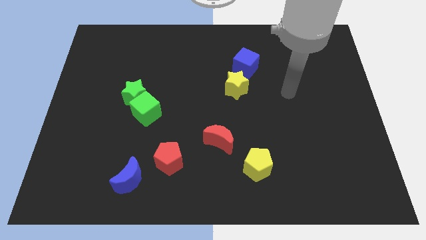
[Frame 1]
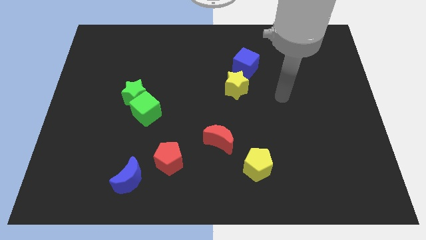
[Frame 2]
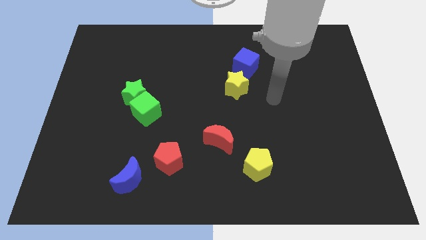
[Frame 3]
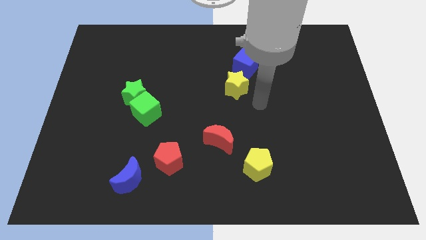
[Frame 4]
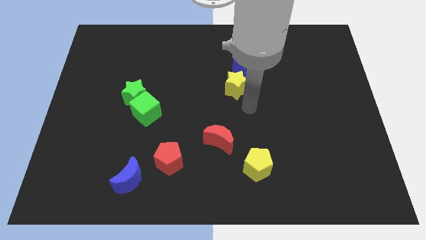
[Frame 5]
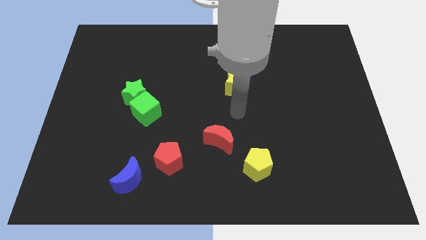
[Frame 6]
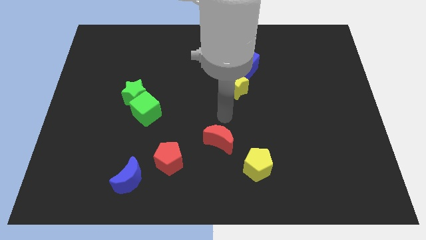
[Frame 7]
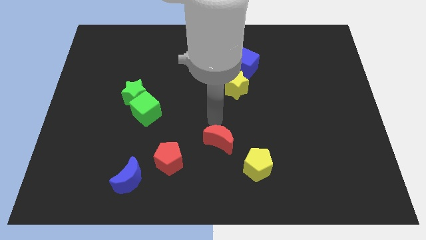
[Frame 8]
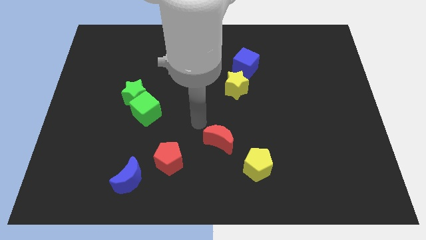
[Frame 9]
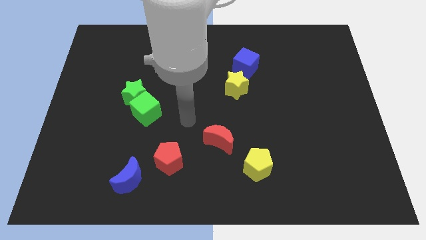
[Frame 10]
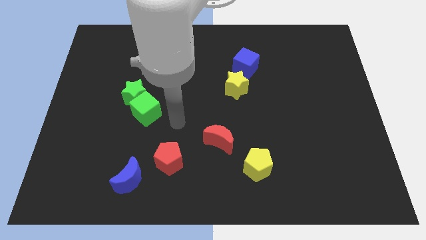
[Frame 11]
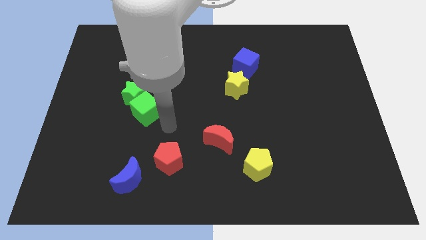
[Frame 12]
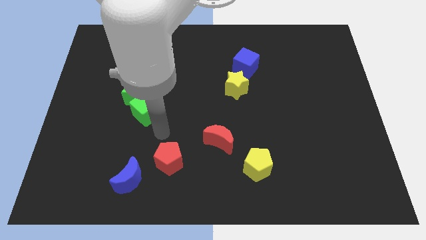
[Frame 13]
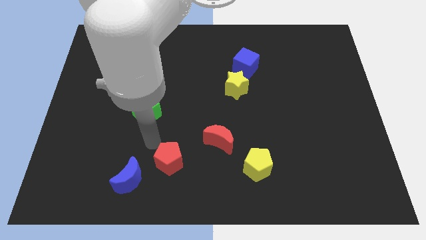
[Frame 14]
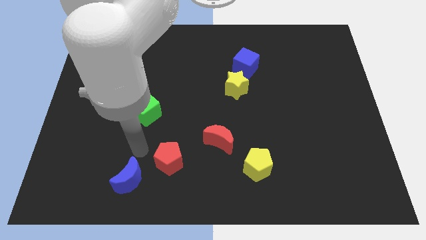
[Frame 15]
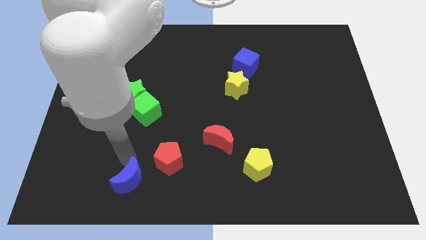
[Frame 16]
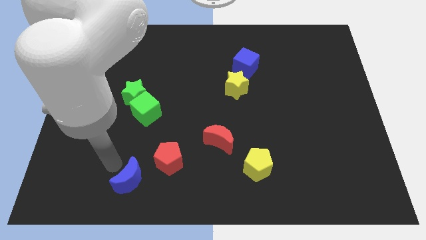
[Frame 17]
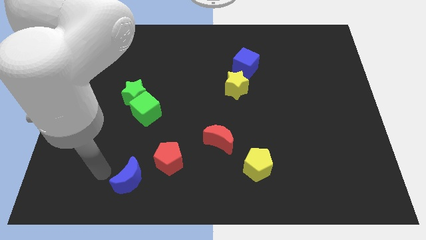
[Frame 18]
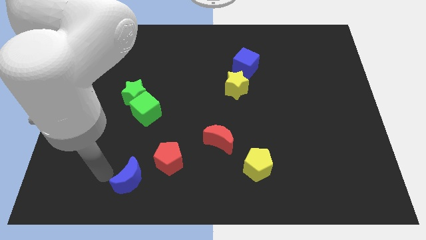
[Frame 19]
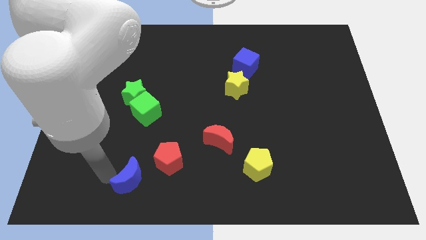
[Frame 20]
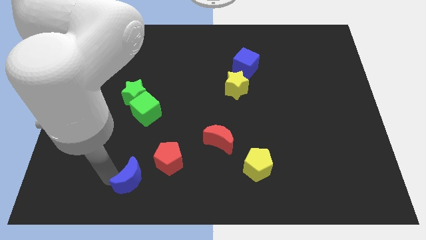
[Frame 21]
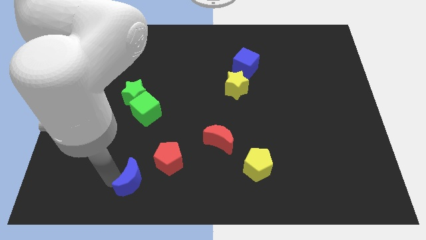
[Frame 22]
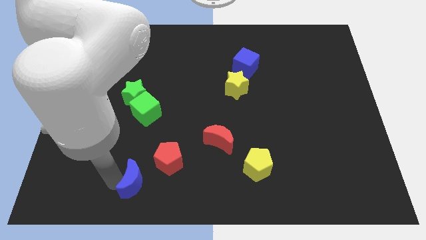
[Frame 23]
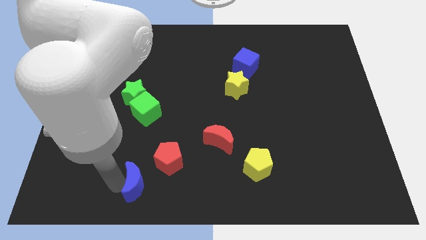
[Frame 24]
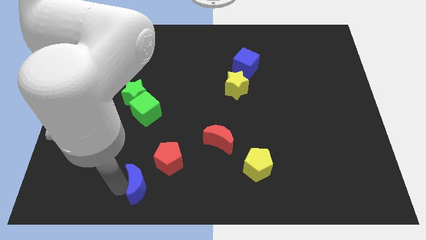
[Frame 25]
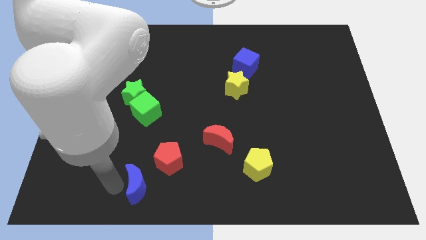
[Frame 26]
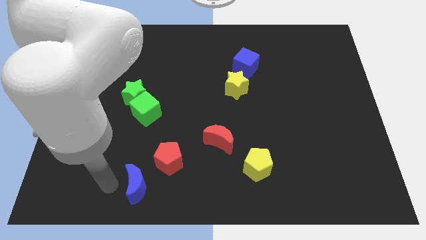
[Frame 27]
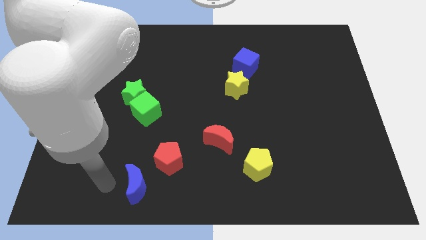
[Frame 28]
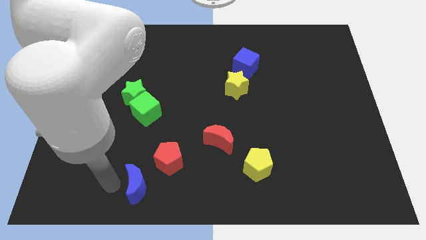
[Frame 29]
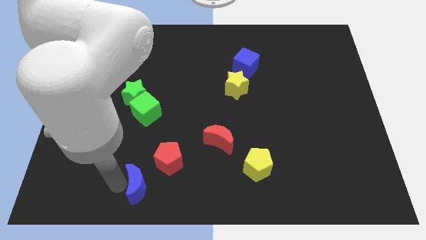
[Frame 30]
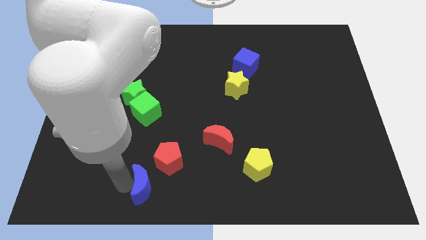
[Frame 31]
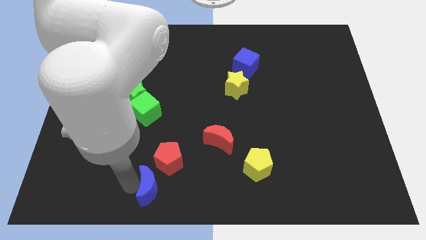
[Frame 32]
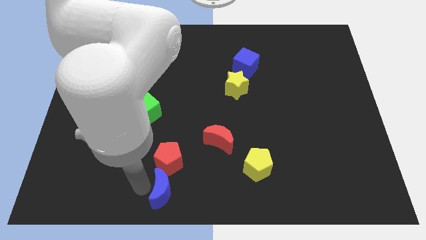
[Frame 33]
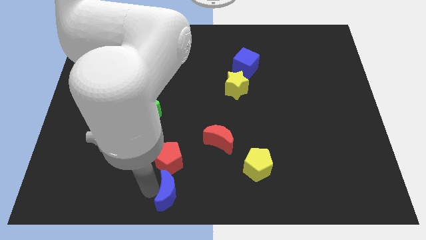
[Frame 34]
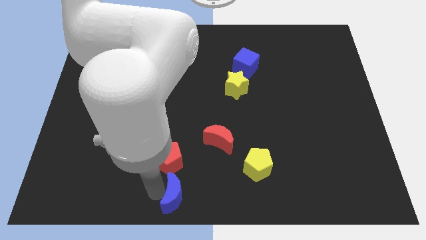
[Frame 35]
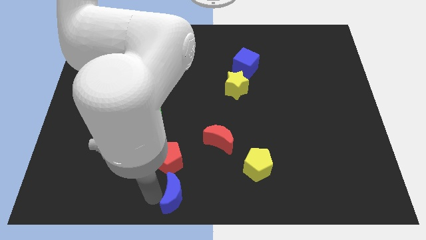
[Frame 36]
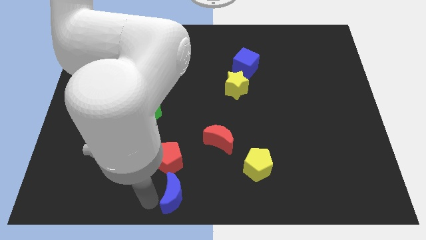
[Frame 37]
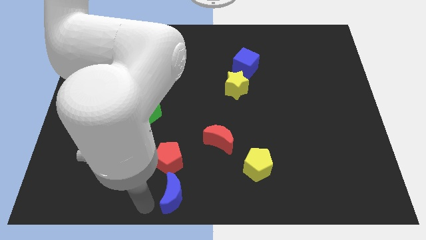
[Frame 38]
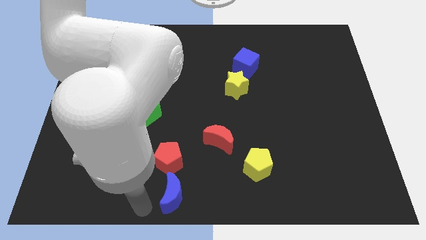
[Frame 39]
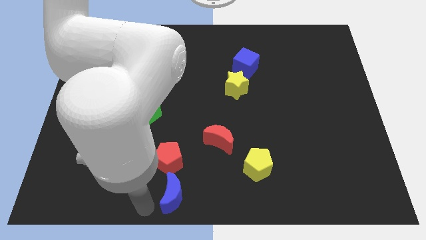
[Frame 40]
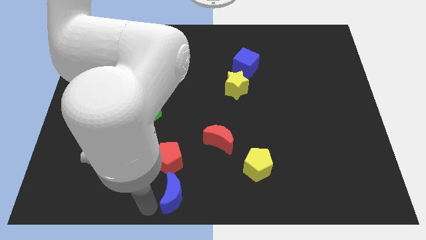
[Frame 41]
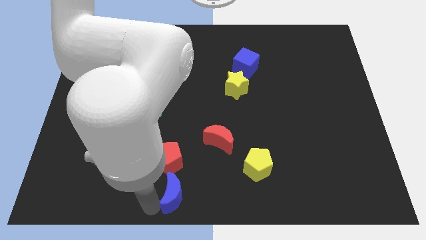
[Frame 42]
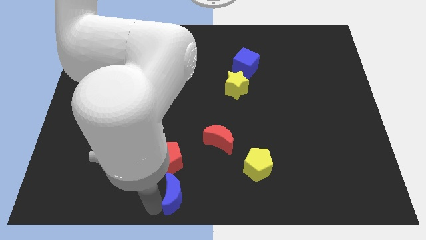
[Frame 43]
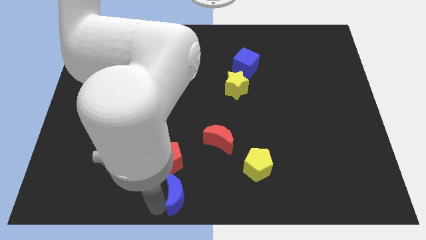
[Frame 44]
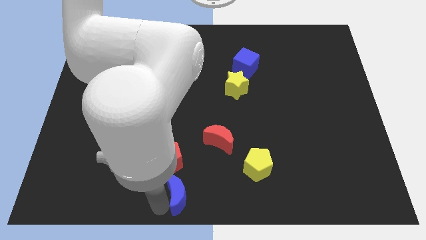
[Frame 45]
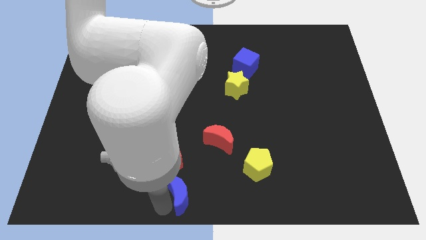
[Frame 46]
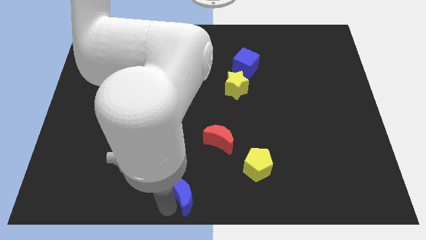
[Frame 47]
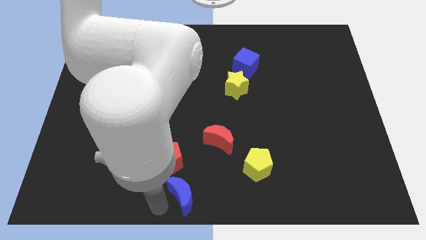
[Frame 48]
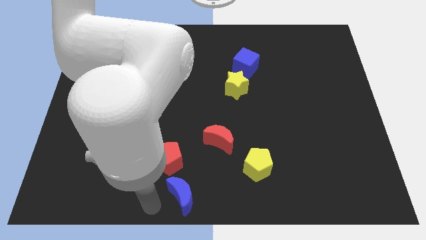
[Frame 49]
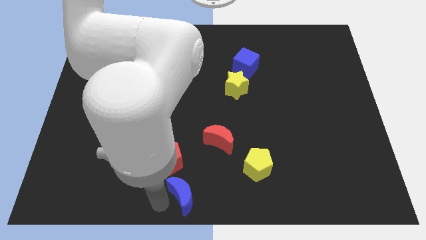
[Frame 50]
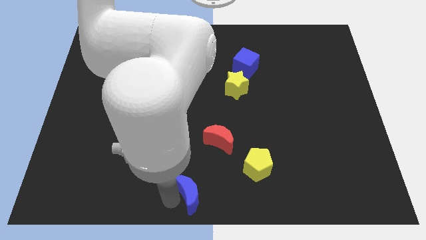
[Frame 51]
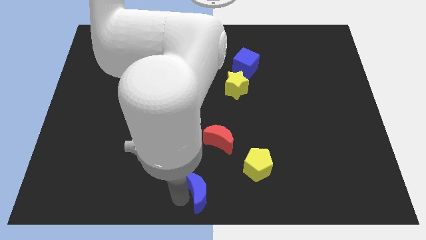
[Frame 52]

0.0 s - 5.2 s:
put the blue moon to the bottom side of the red moon

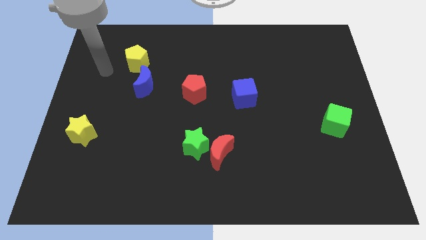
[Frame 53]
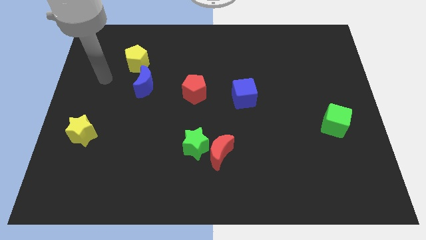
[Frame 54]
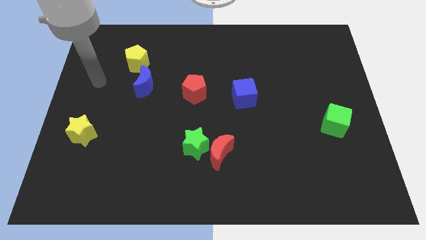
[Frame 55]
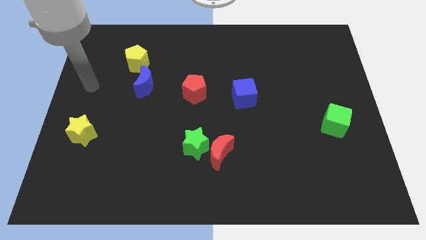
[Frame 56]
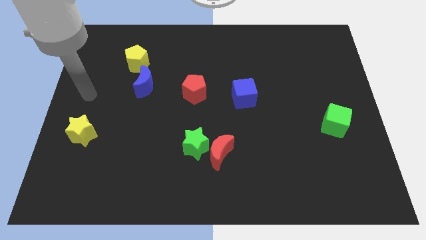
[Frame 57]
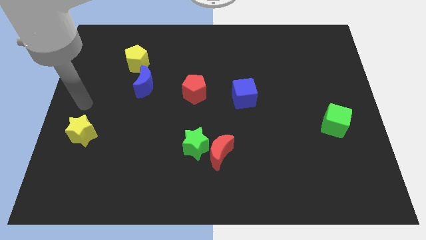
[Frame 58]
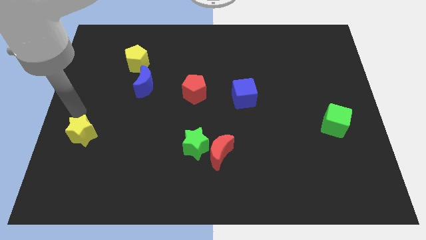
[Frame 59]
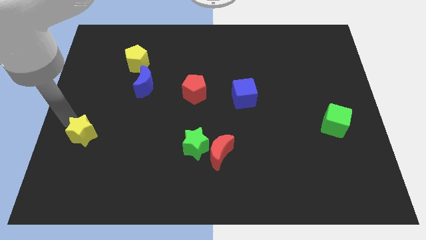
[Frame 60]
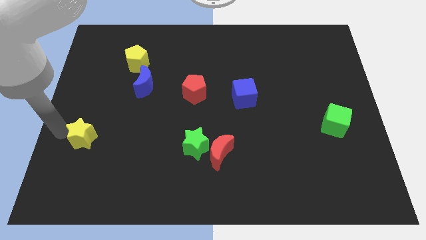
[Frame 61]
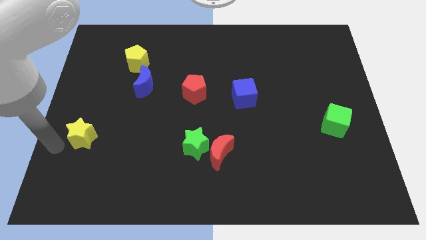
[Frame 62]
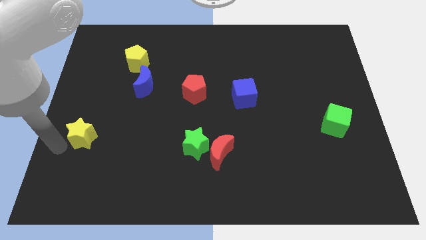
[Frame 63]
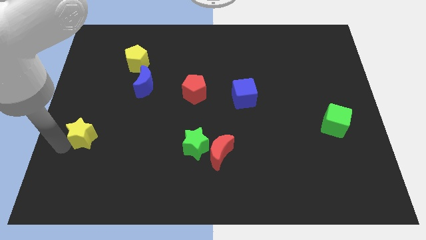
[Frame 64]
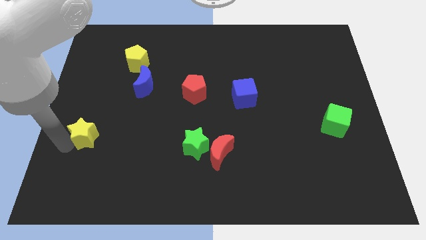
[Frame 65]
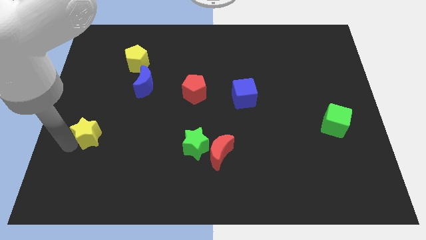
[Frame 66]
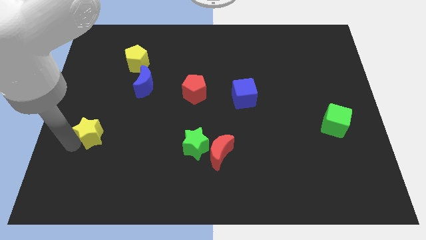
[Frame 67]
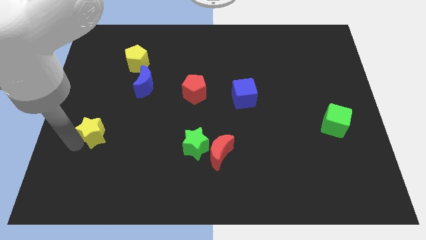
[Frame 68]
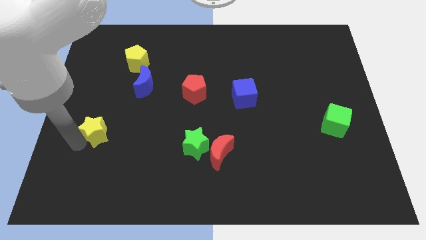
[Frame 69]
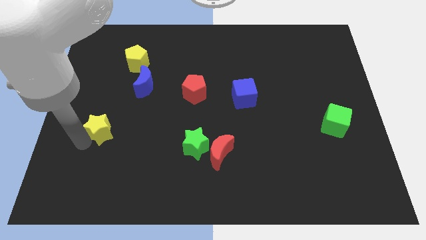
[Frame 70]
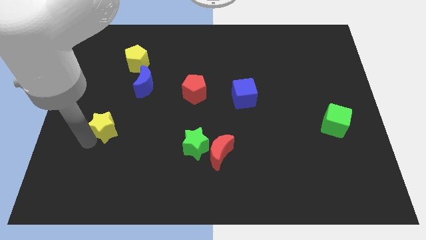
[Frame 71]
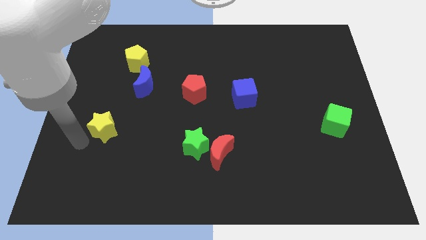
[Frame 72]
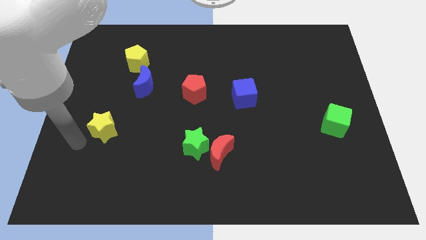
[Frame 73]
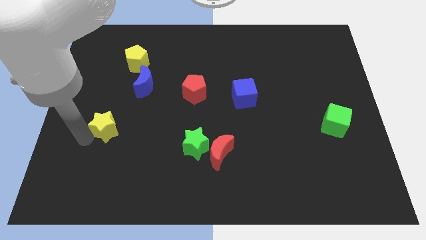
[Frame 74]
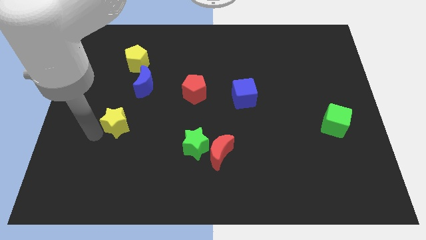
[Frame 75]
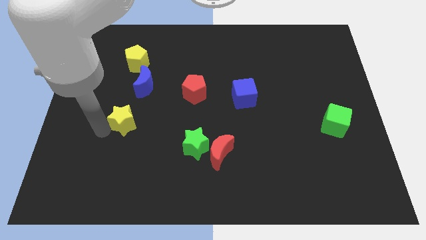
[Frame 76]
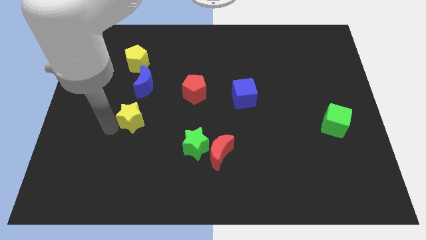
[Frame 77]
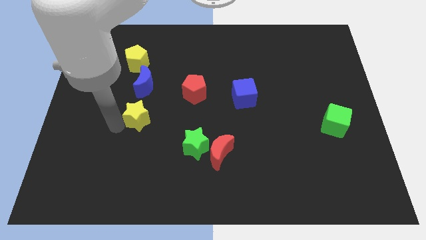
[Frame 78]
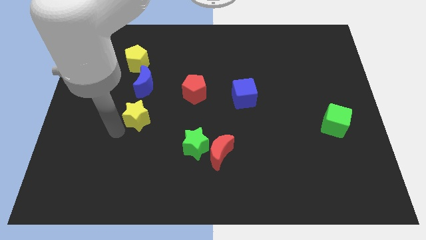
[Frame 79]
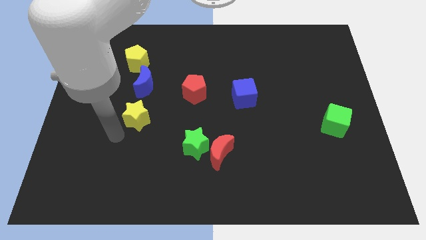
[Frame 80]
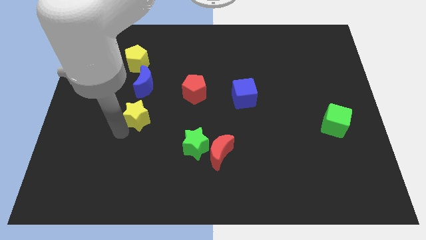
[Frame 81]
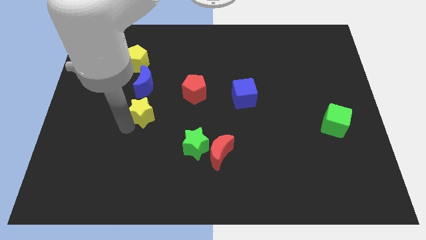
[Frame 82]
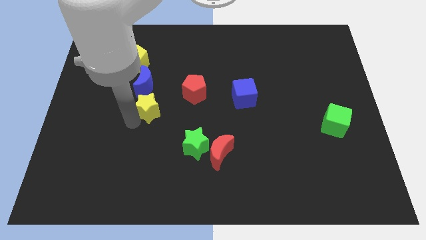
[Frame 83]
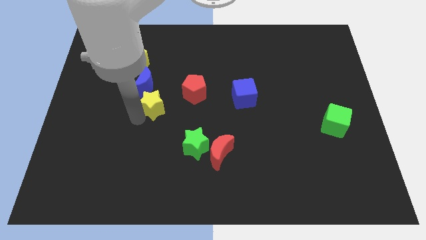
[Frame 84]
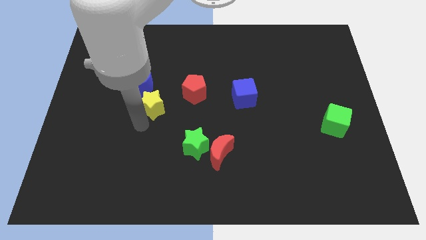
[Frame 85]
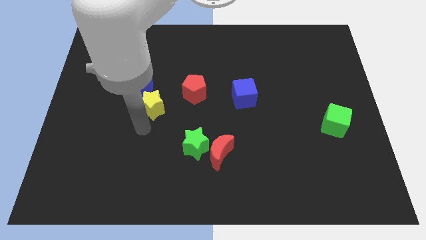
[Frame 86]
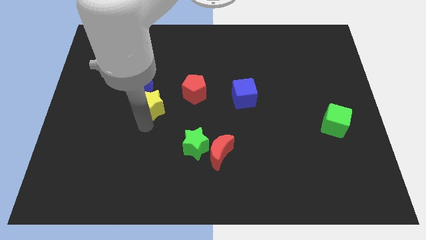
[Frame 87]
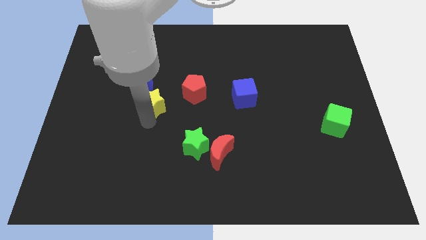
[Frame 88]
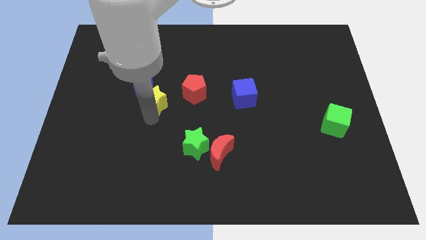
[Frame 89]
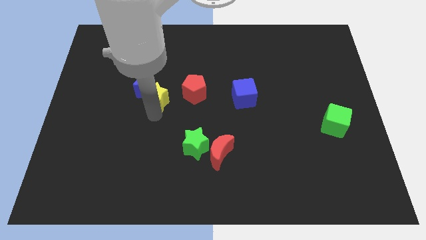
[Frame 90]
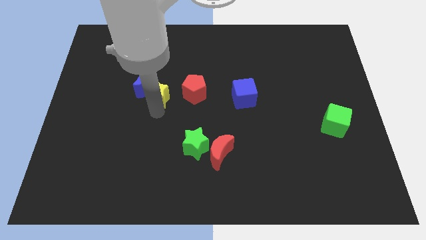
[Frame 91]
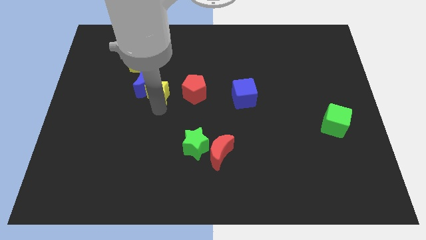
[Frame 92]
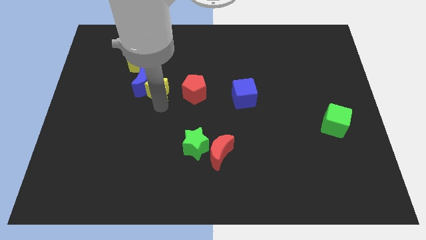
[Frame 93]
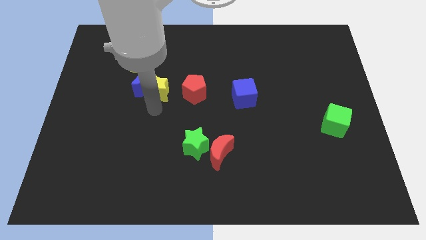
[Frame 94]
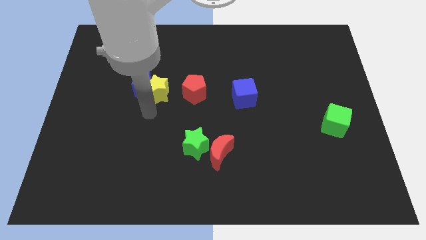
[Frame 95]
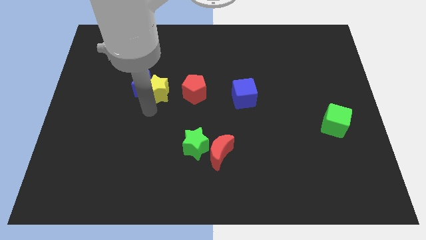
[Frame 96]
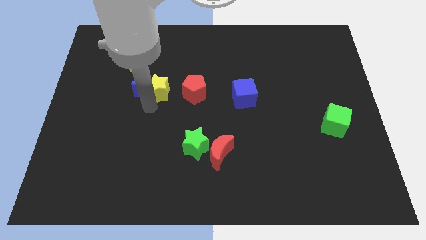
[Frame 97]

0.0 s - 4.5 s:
move the yellow star to the top right side of the blue moon
